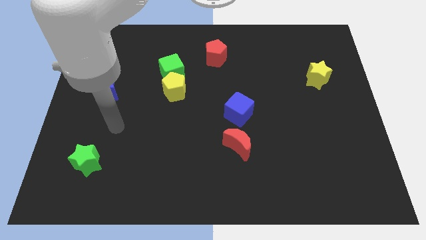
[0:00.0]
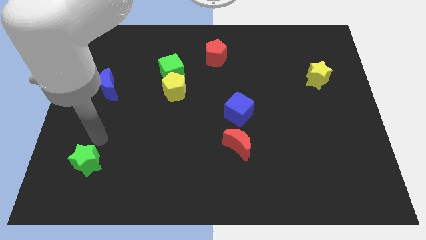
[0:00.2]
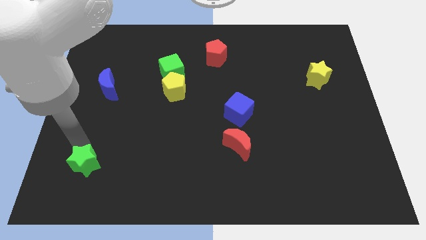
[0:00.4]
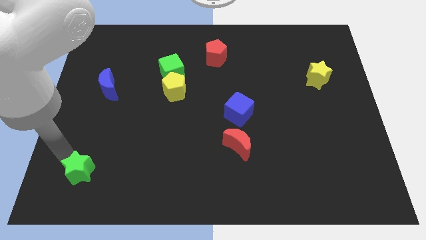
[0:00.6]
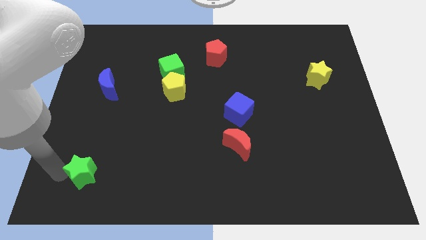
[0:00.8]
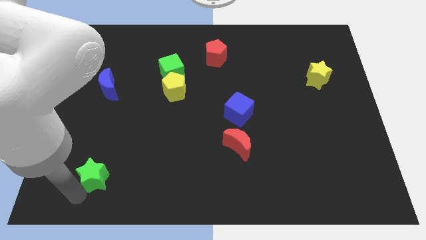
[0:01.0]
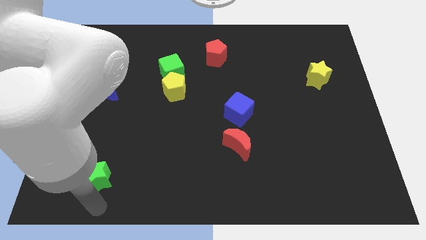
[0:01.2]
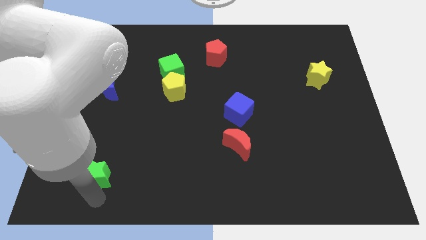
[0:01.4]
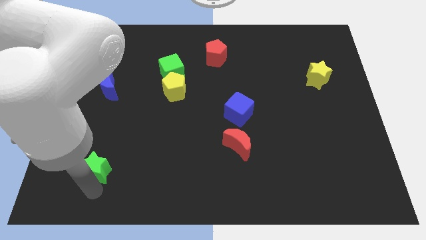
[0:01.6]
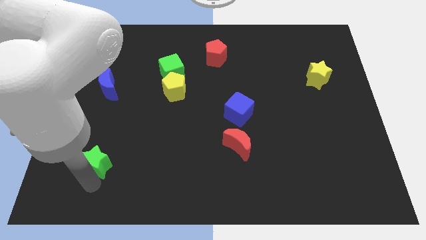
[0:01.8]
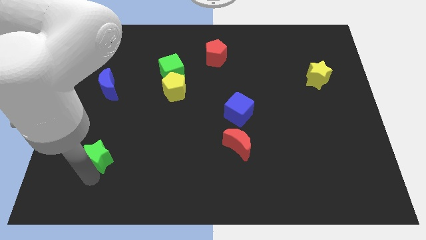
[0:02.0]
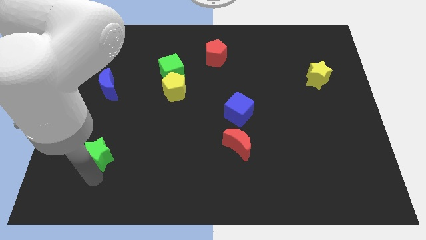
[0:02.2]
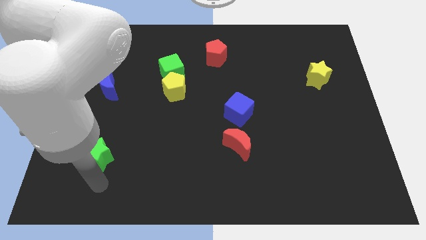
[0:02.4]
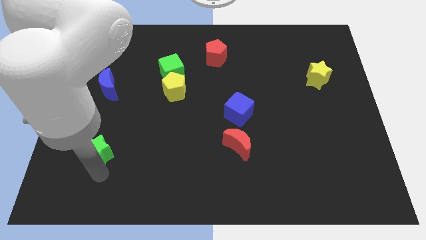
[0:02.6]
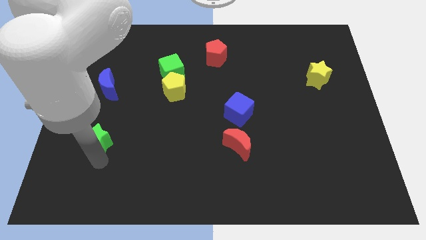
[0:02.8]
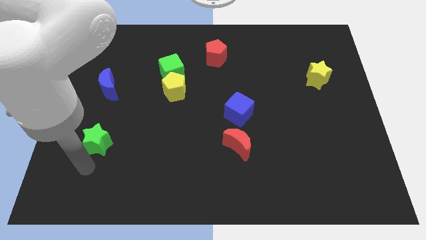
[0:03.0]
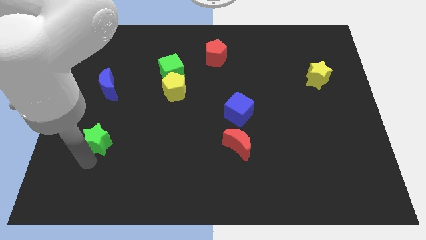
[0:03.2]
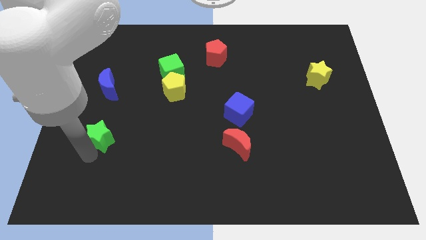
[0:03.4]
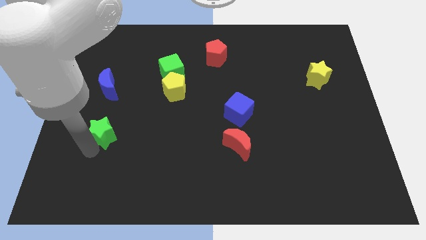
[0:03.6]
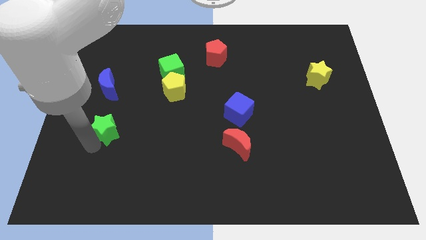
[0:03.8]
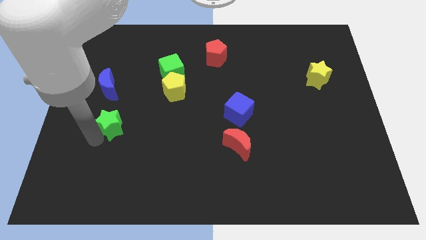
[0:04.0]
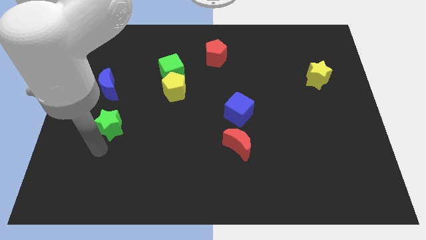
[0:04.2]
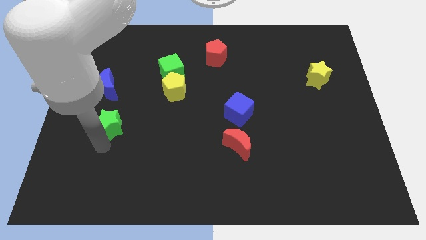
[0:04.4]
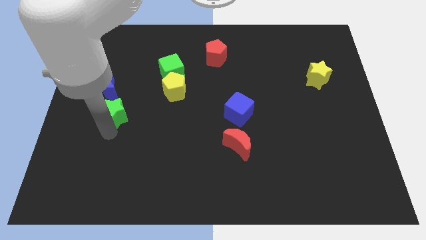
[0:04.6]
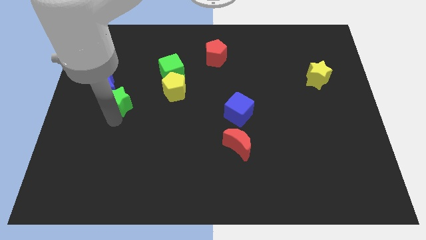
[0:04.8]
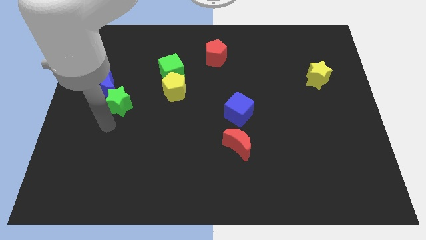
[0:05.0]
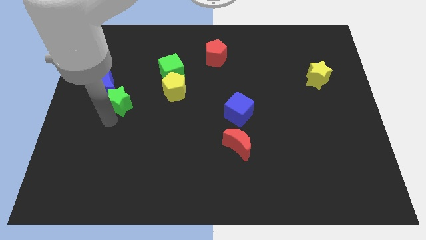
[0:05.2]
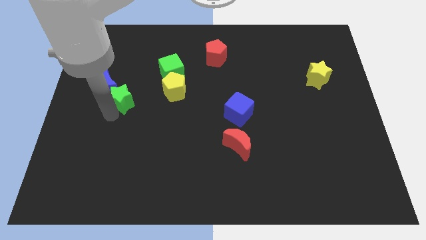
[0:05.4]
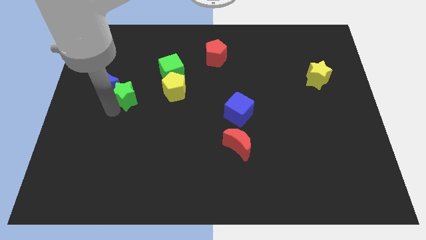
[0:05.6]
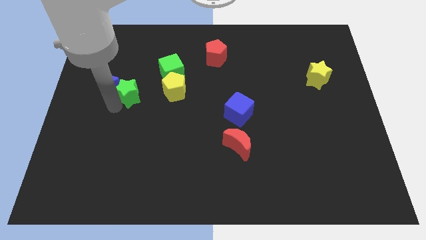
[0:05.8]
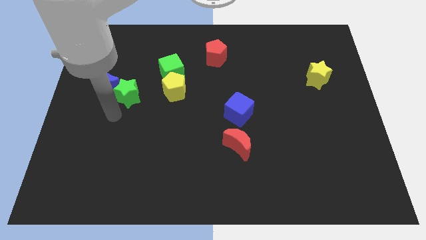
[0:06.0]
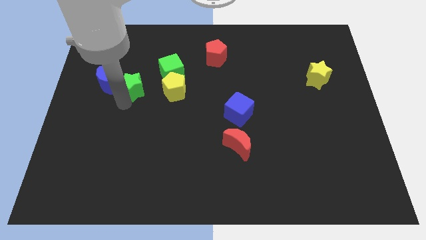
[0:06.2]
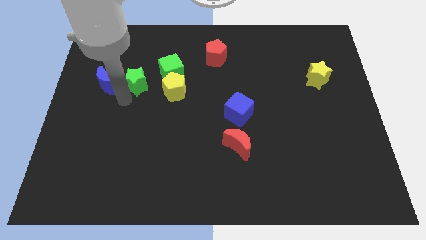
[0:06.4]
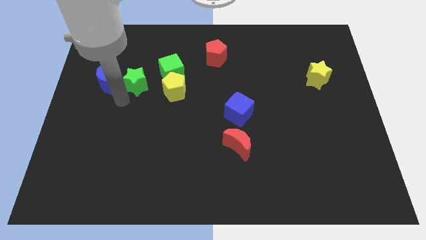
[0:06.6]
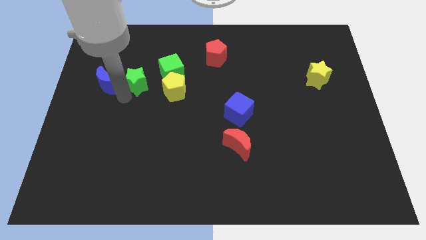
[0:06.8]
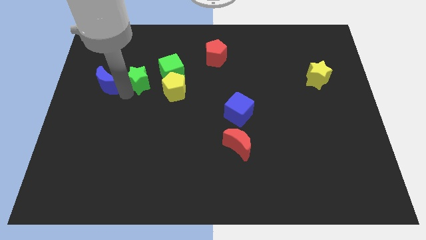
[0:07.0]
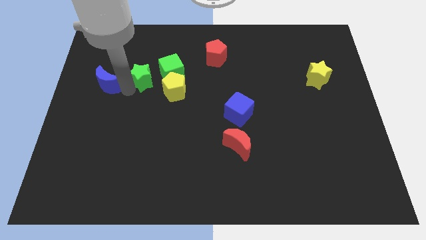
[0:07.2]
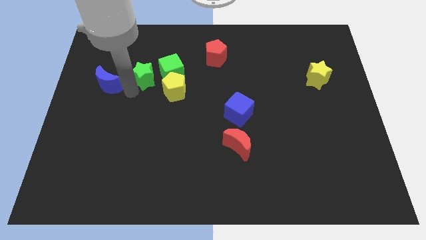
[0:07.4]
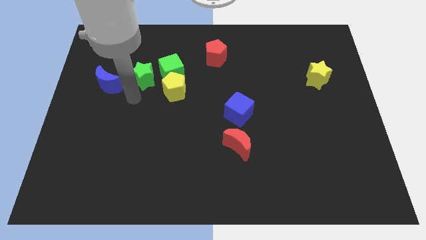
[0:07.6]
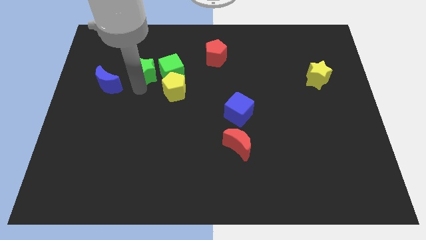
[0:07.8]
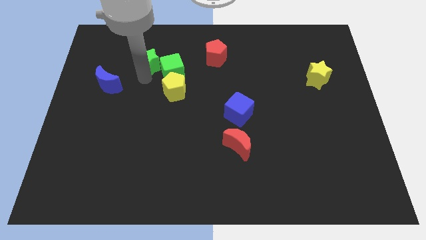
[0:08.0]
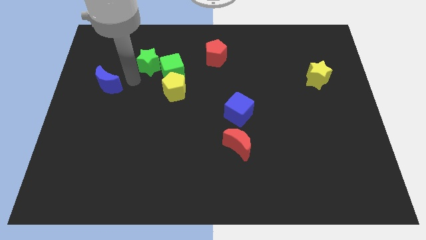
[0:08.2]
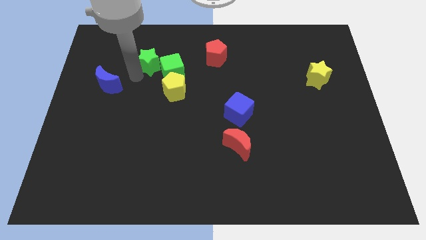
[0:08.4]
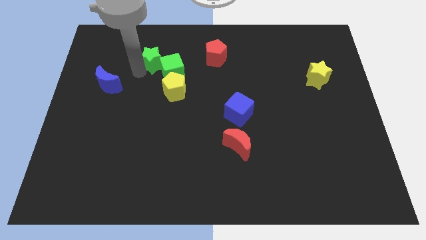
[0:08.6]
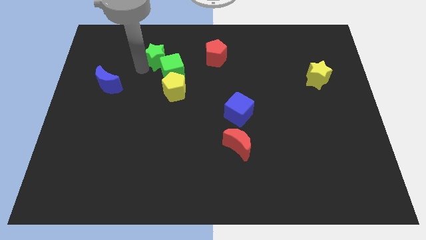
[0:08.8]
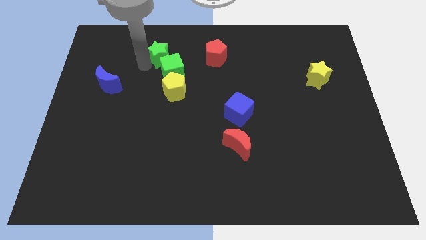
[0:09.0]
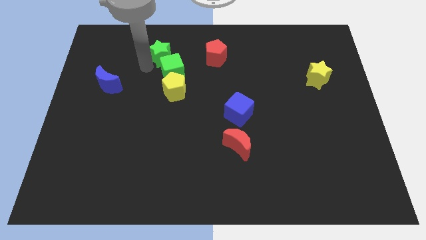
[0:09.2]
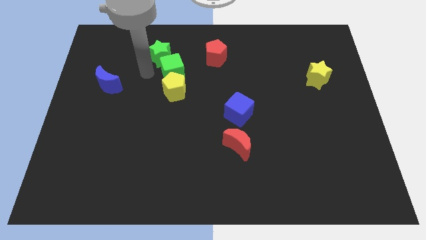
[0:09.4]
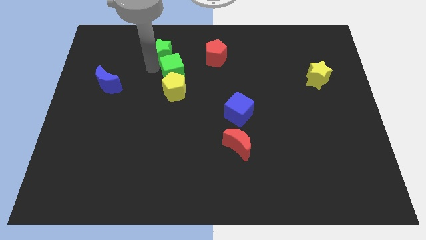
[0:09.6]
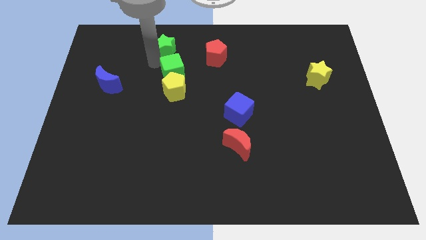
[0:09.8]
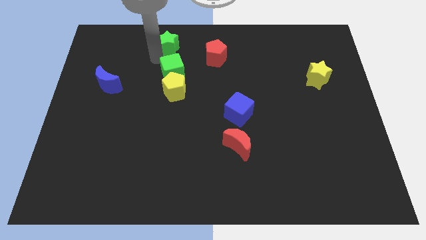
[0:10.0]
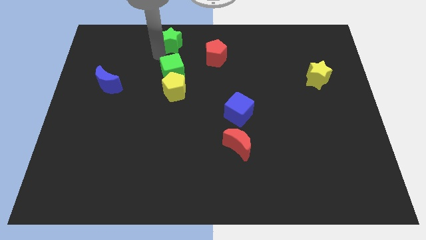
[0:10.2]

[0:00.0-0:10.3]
push the green star to the towards your base
